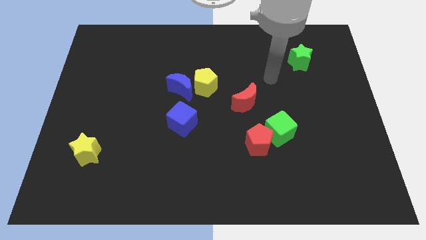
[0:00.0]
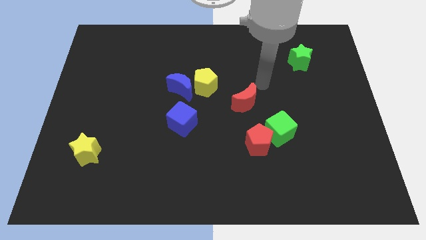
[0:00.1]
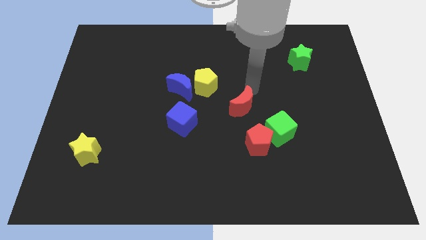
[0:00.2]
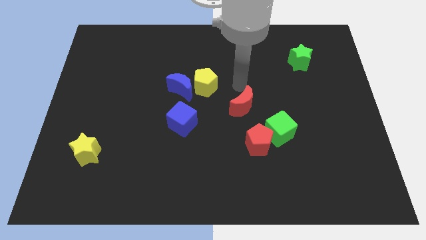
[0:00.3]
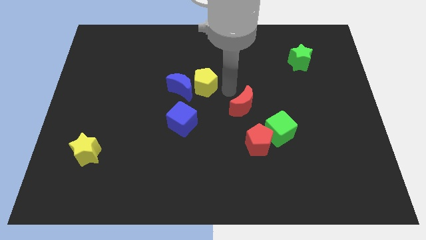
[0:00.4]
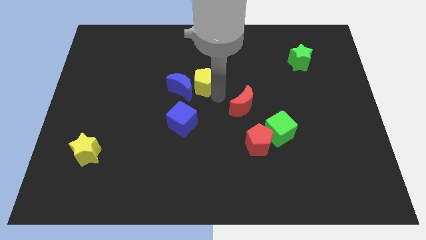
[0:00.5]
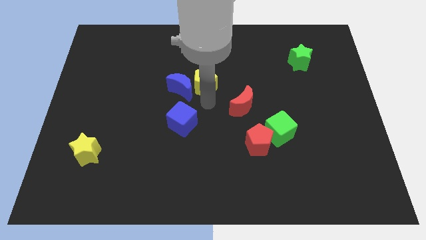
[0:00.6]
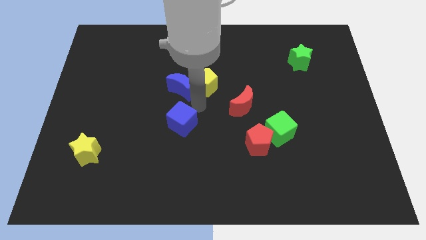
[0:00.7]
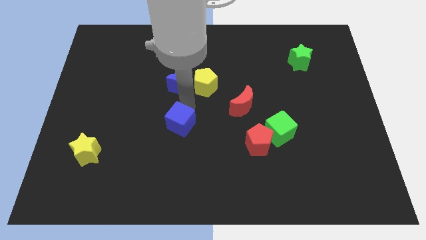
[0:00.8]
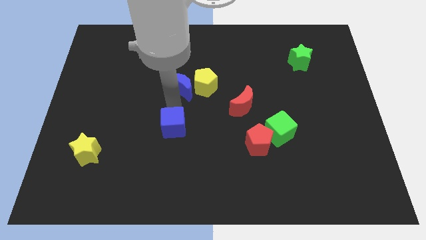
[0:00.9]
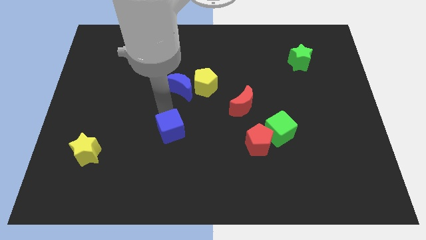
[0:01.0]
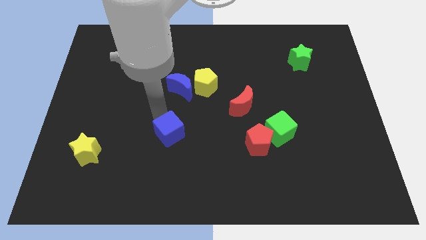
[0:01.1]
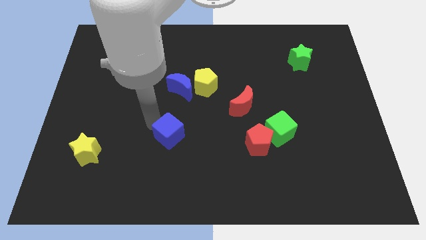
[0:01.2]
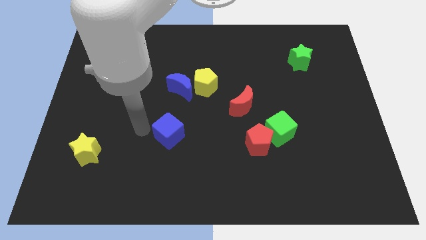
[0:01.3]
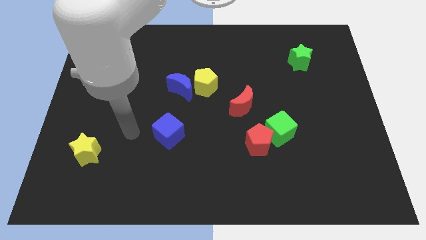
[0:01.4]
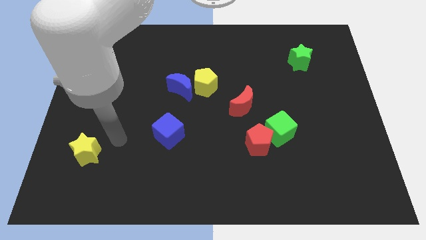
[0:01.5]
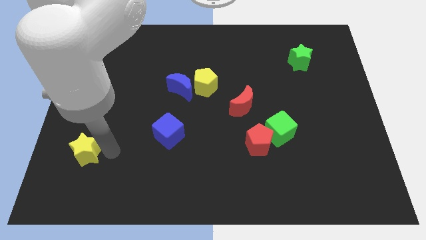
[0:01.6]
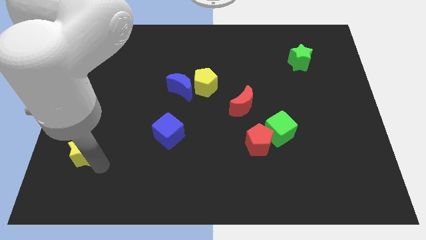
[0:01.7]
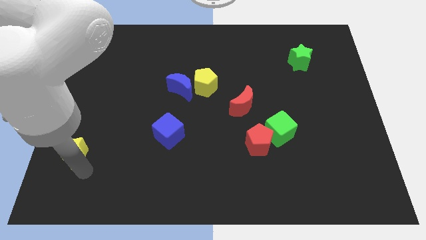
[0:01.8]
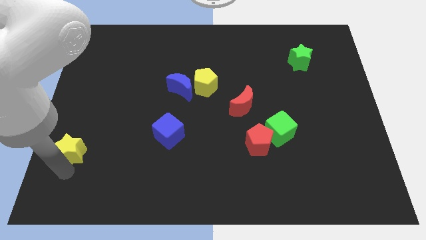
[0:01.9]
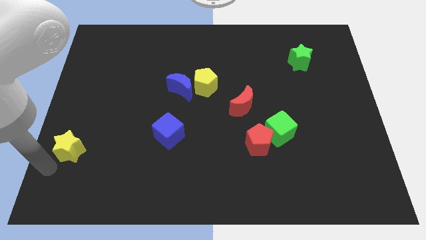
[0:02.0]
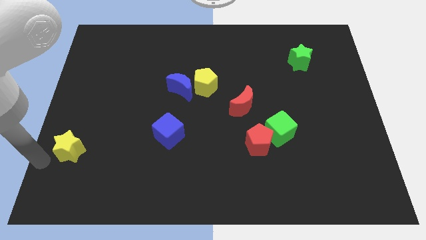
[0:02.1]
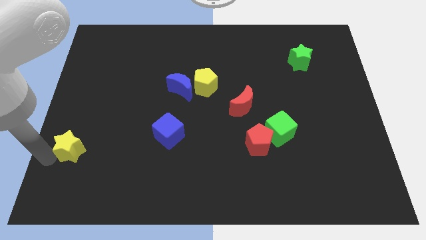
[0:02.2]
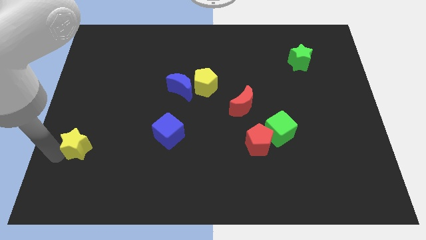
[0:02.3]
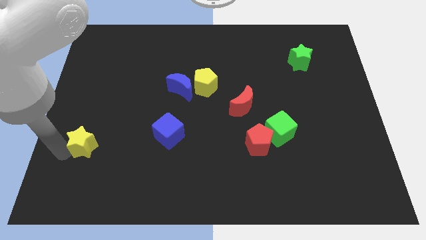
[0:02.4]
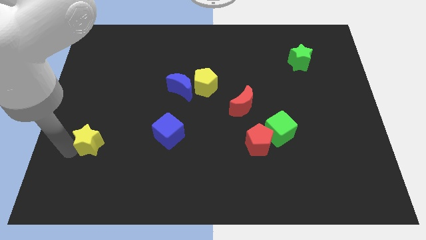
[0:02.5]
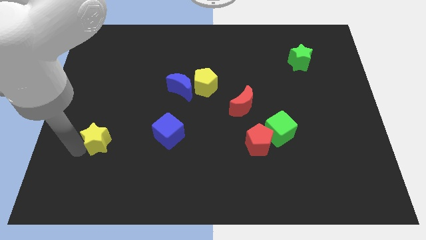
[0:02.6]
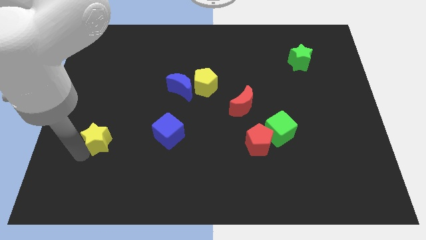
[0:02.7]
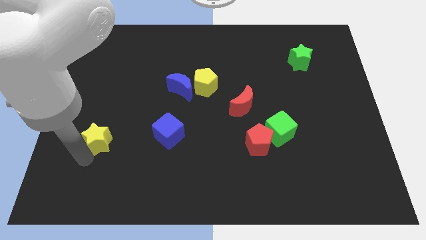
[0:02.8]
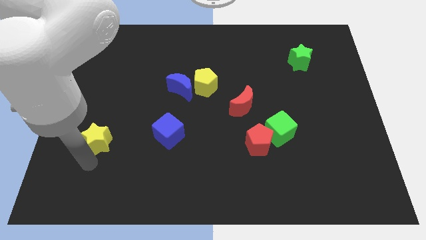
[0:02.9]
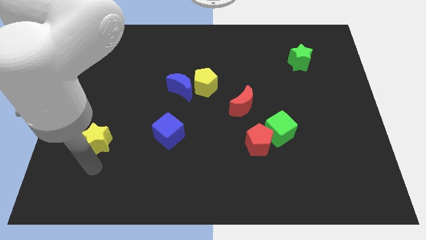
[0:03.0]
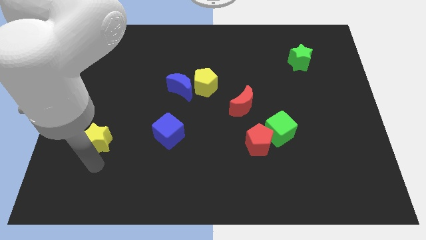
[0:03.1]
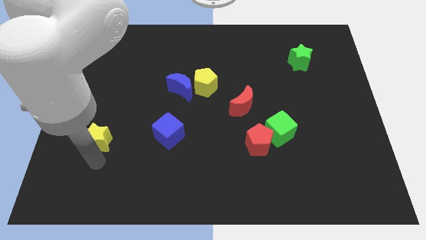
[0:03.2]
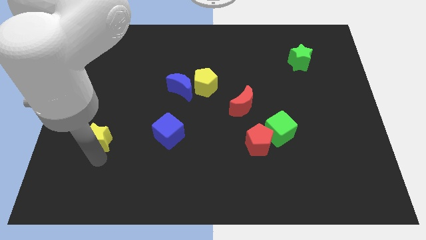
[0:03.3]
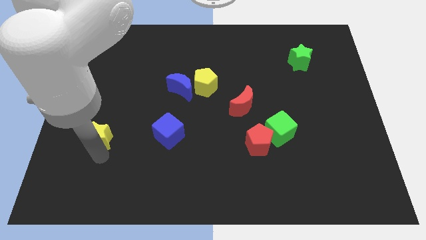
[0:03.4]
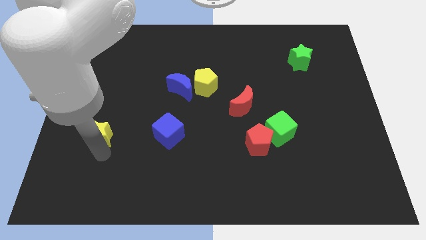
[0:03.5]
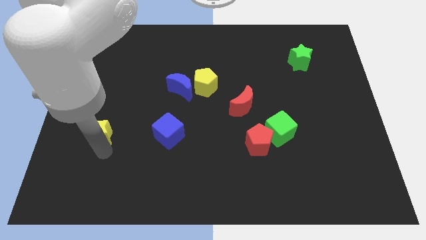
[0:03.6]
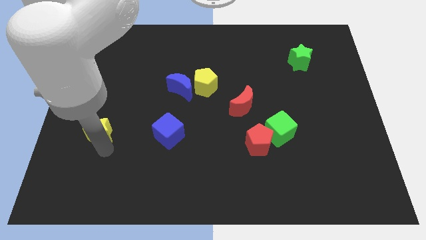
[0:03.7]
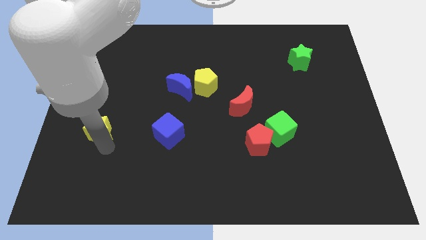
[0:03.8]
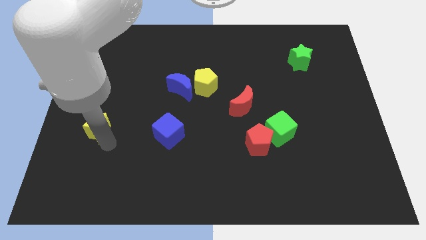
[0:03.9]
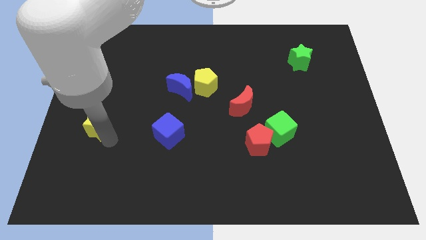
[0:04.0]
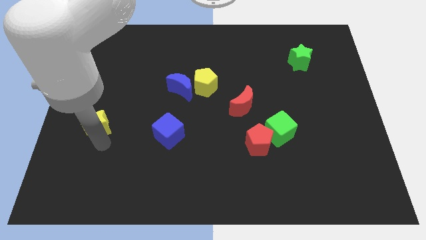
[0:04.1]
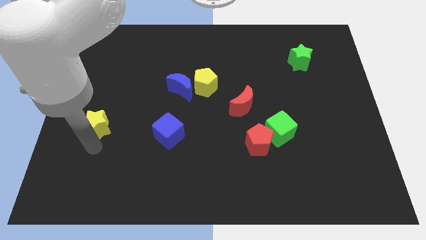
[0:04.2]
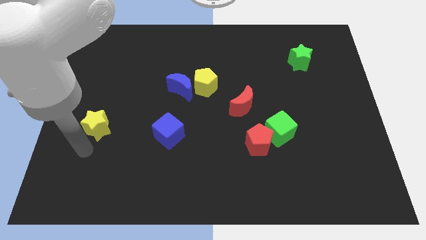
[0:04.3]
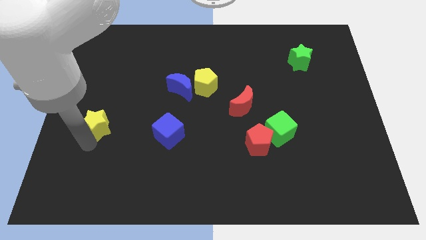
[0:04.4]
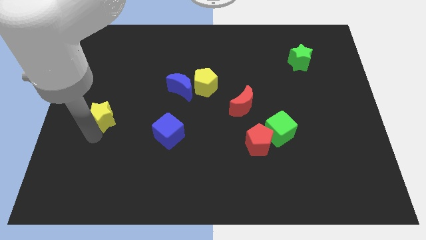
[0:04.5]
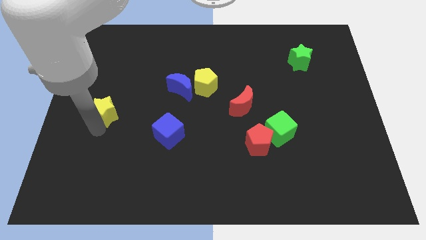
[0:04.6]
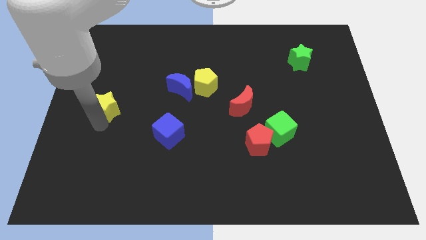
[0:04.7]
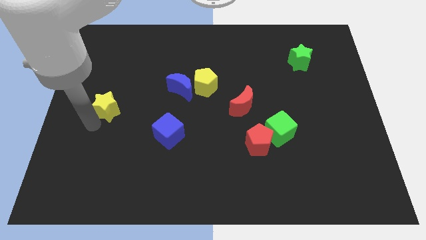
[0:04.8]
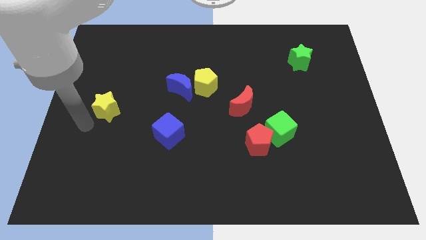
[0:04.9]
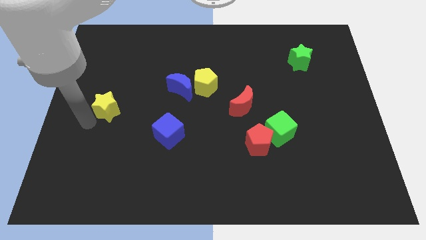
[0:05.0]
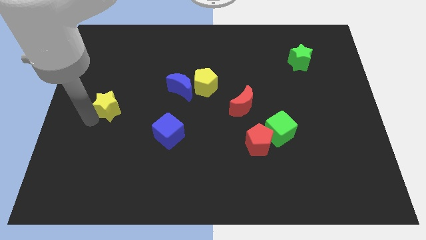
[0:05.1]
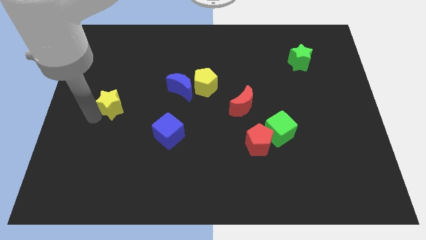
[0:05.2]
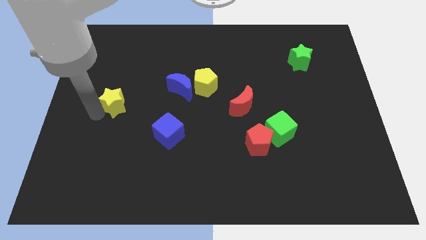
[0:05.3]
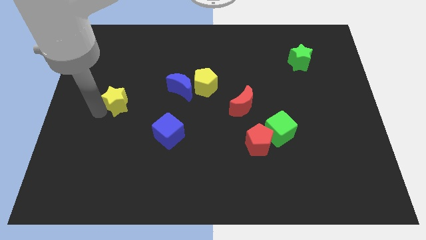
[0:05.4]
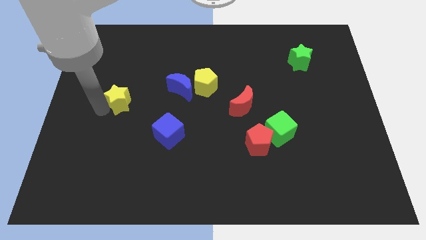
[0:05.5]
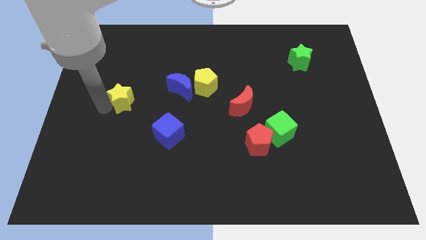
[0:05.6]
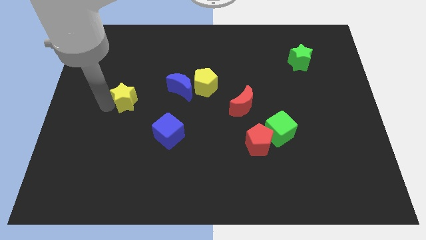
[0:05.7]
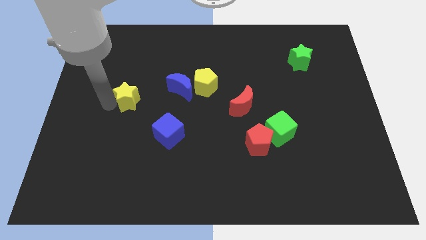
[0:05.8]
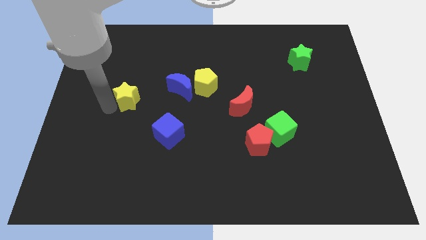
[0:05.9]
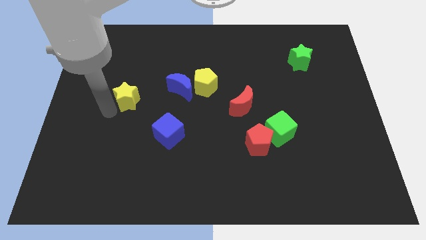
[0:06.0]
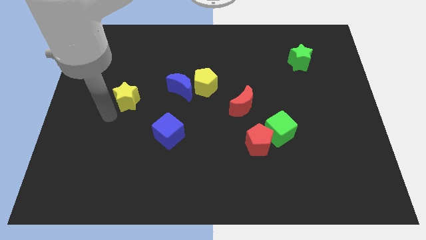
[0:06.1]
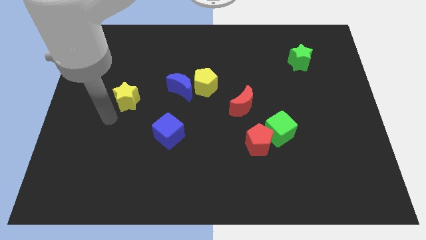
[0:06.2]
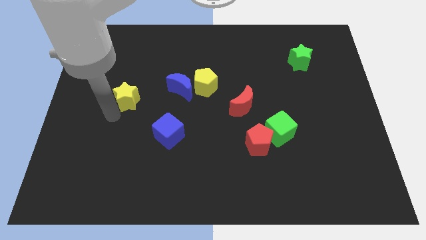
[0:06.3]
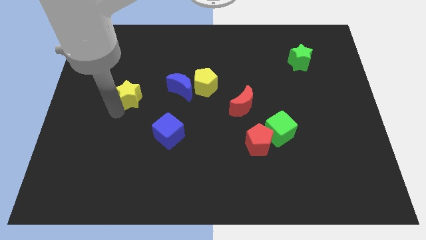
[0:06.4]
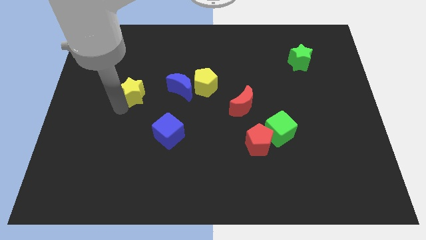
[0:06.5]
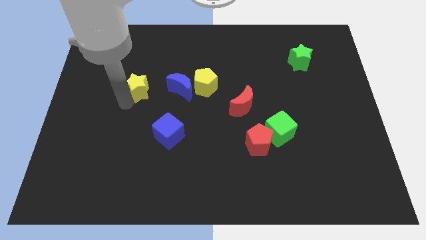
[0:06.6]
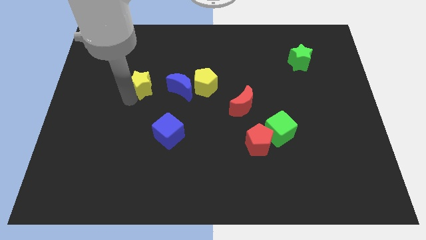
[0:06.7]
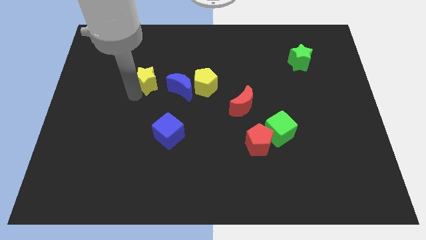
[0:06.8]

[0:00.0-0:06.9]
put the yellow star to the top left side of the blue moon
